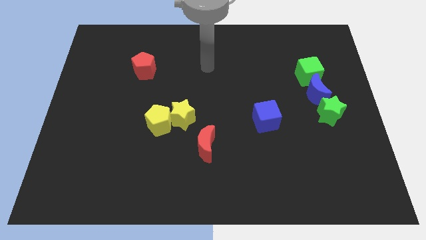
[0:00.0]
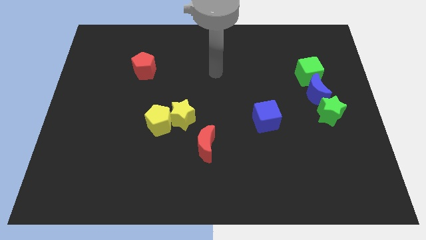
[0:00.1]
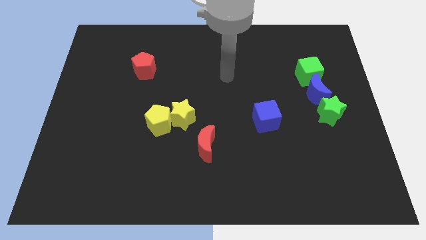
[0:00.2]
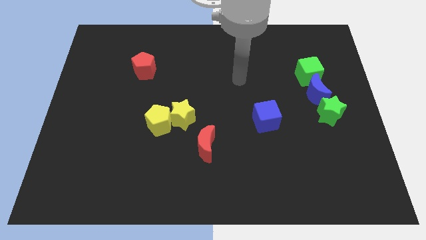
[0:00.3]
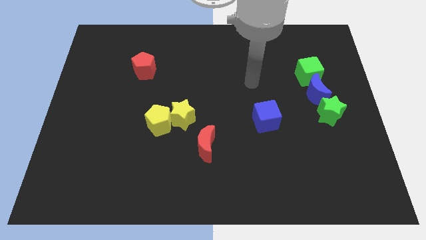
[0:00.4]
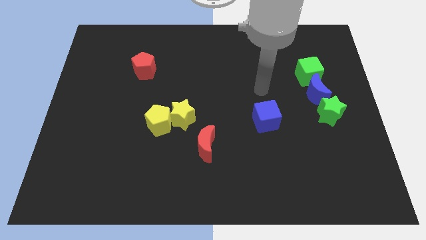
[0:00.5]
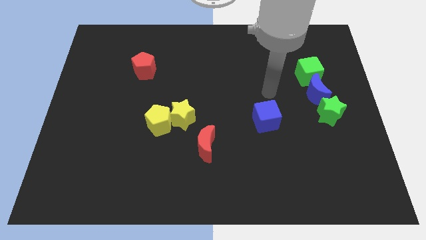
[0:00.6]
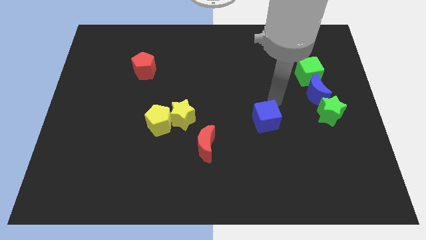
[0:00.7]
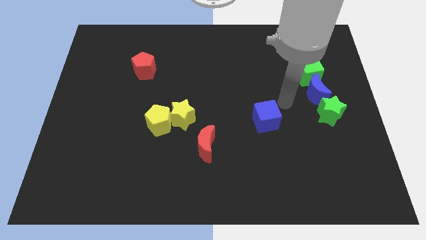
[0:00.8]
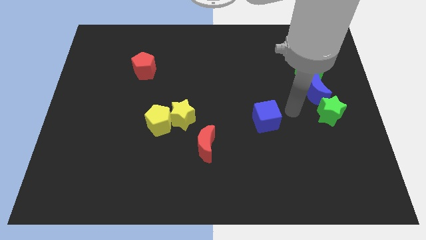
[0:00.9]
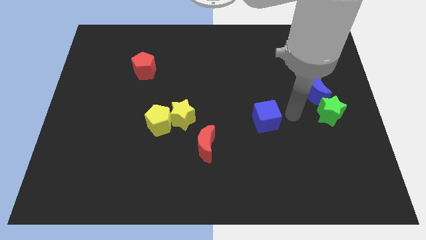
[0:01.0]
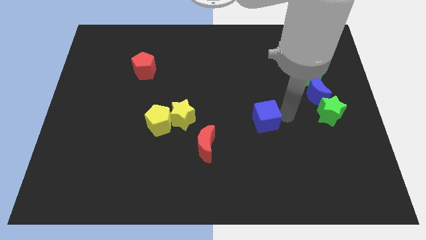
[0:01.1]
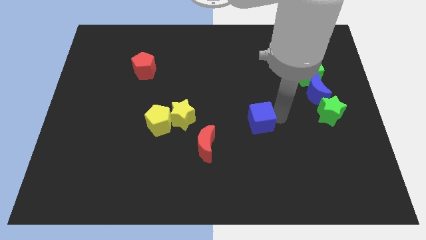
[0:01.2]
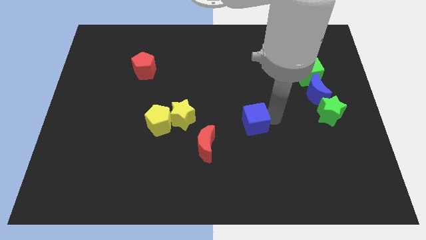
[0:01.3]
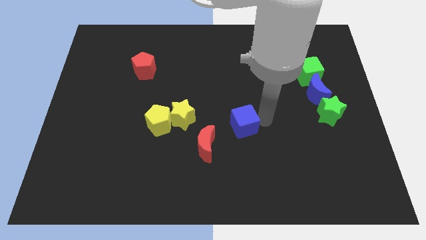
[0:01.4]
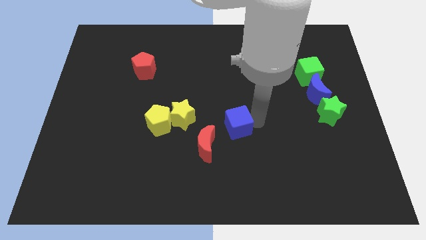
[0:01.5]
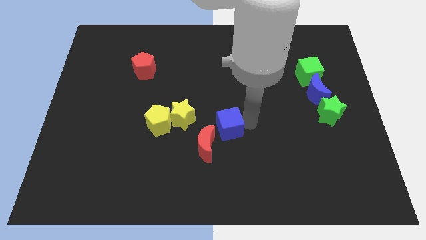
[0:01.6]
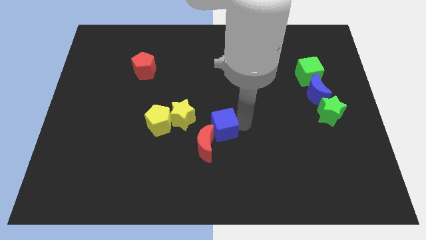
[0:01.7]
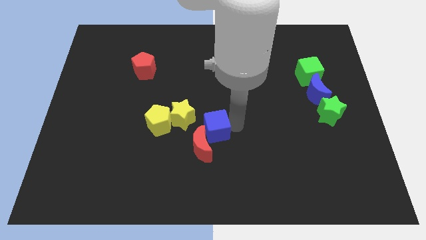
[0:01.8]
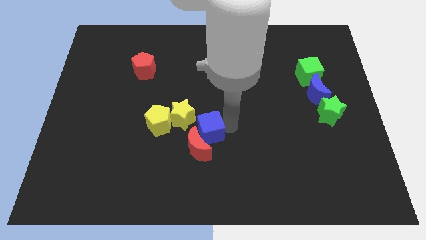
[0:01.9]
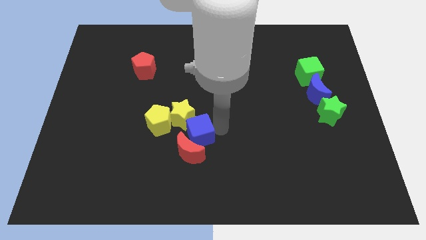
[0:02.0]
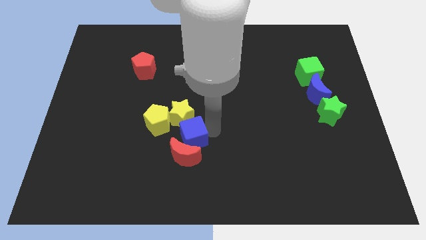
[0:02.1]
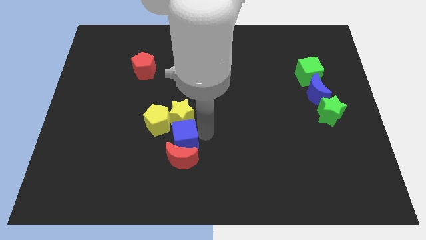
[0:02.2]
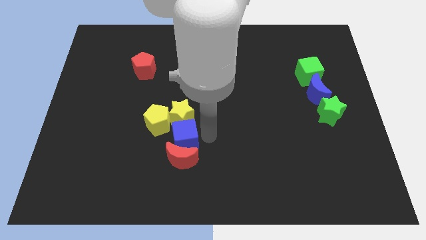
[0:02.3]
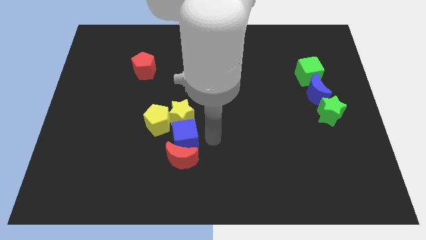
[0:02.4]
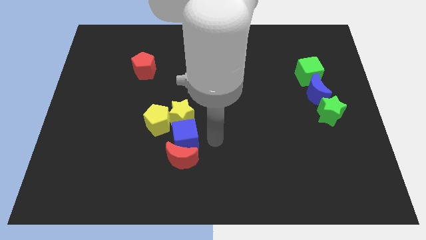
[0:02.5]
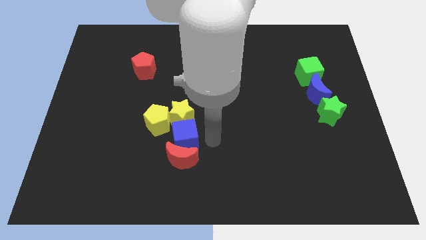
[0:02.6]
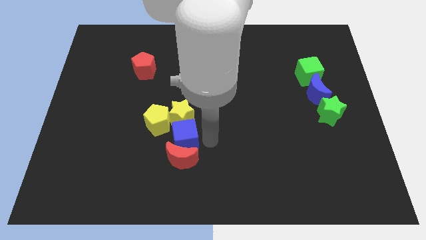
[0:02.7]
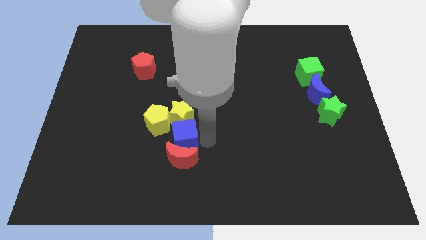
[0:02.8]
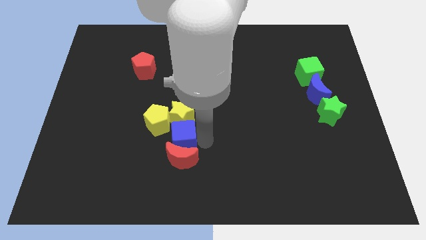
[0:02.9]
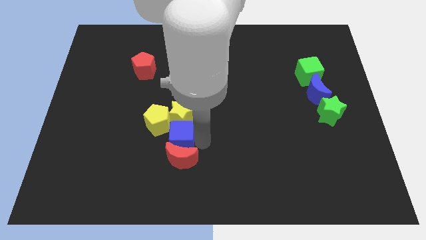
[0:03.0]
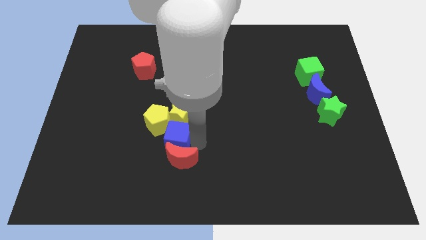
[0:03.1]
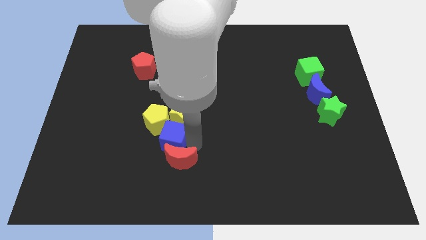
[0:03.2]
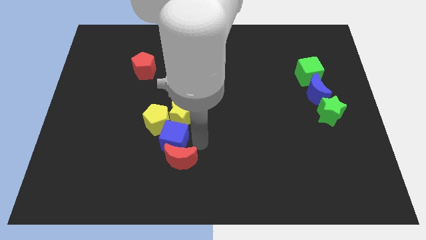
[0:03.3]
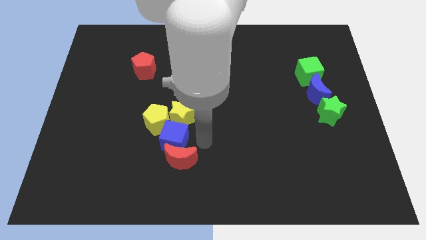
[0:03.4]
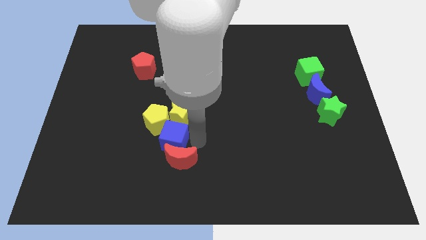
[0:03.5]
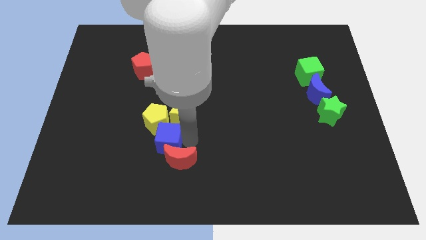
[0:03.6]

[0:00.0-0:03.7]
slide the blue cube left

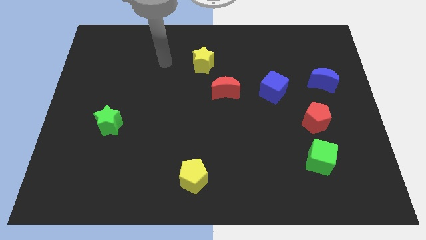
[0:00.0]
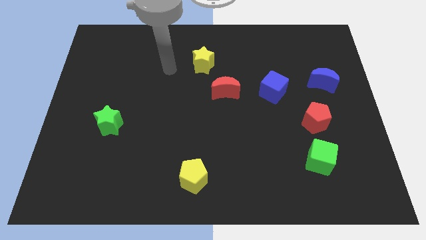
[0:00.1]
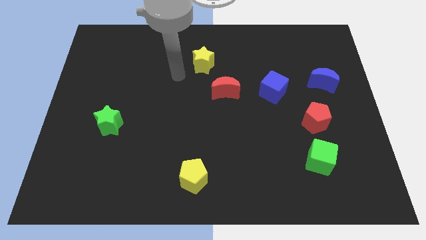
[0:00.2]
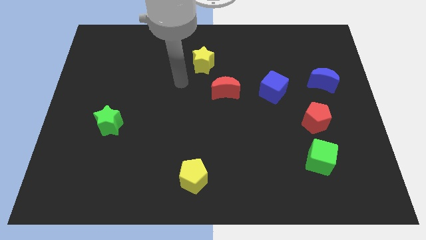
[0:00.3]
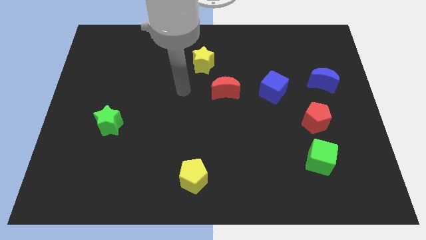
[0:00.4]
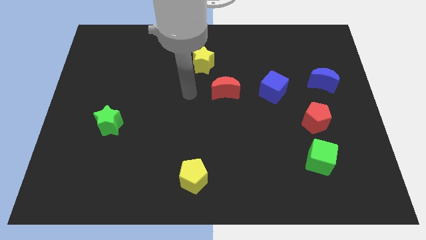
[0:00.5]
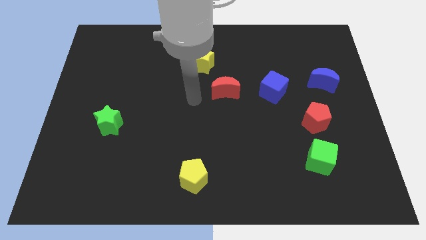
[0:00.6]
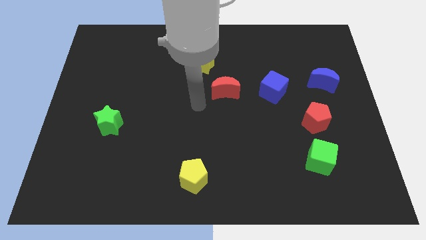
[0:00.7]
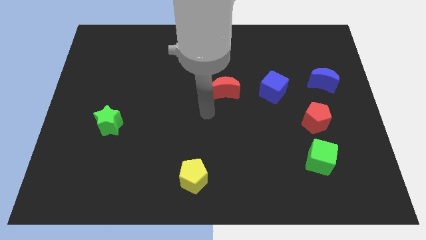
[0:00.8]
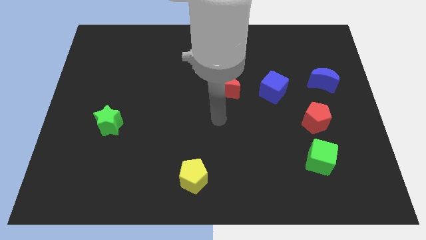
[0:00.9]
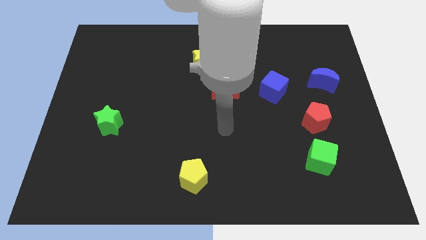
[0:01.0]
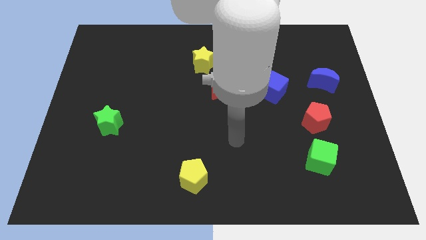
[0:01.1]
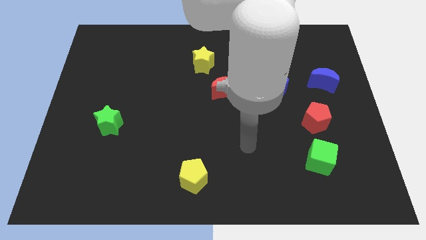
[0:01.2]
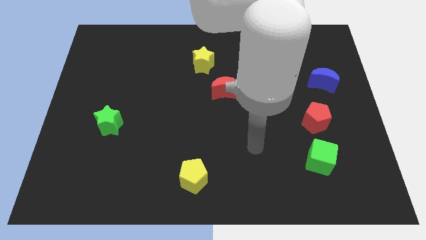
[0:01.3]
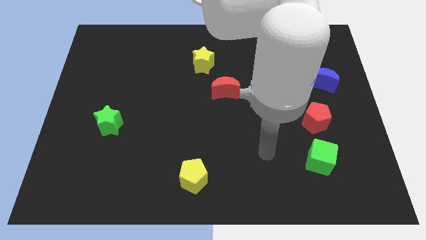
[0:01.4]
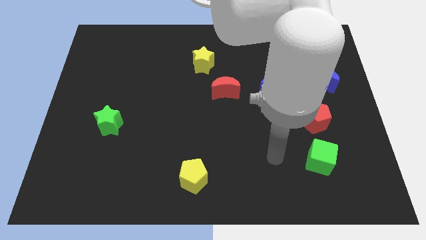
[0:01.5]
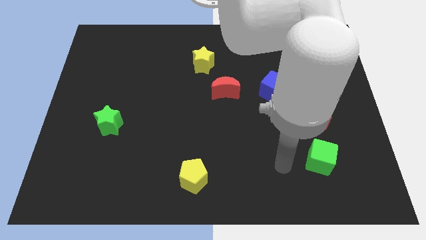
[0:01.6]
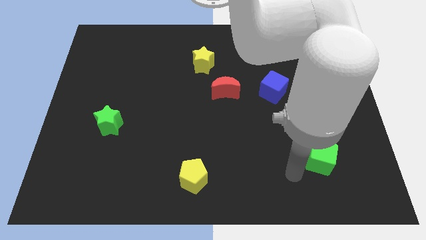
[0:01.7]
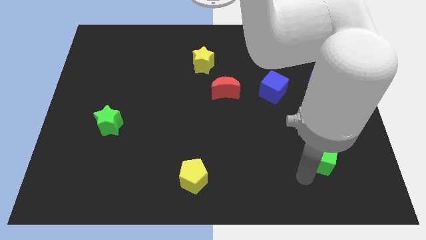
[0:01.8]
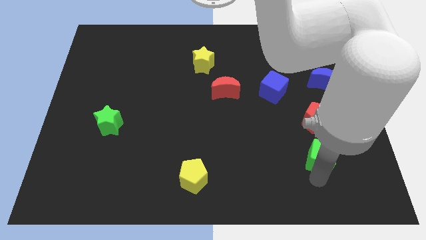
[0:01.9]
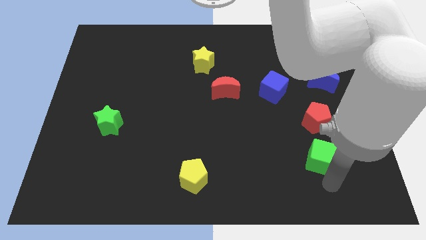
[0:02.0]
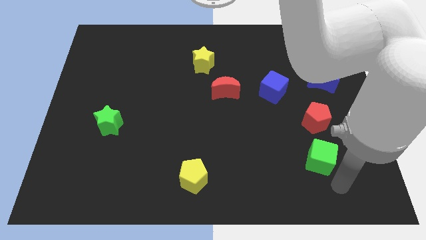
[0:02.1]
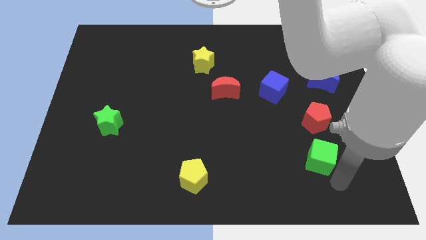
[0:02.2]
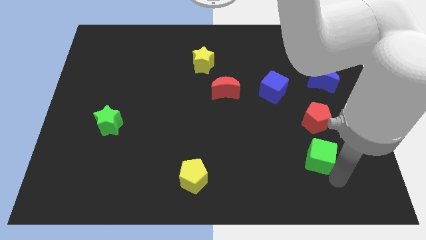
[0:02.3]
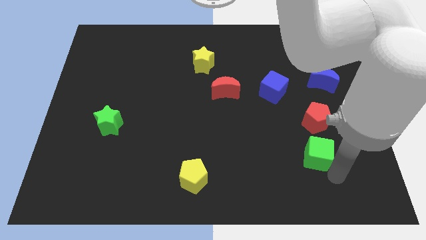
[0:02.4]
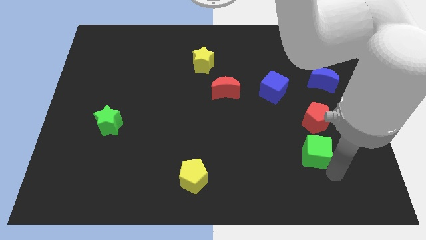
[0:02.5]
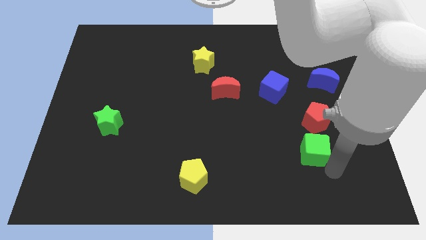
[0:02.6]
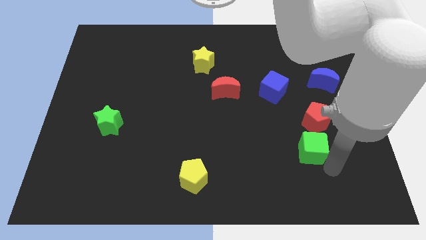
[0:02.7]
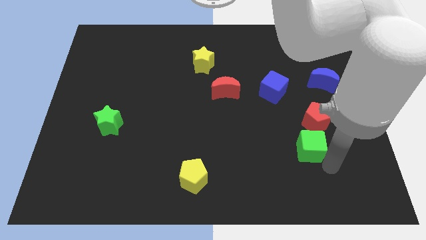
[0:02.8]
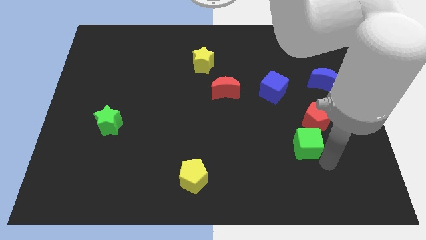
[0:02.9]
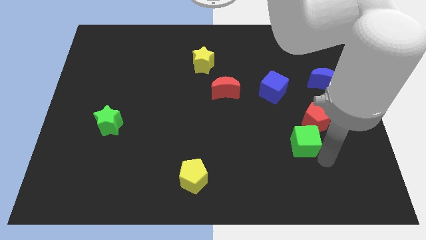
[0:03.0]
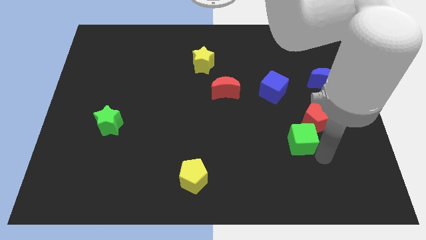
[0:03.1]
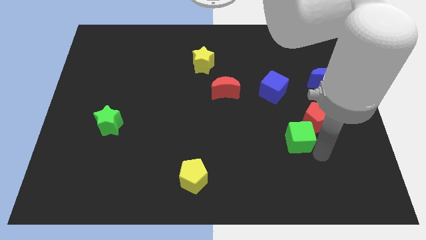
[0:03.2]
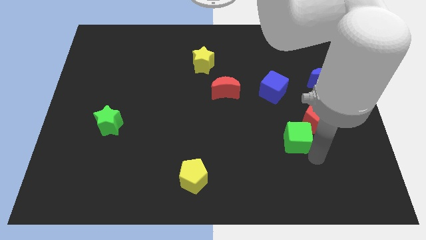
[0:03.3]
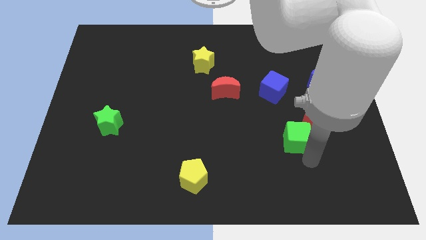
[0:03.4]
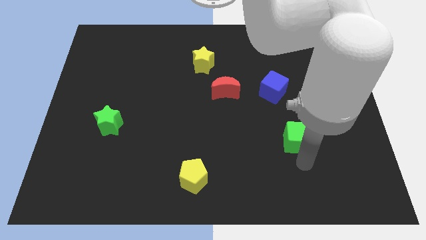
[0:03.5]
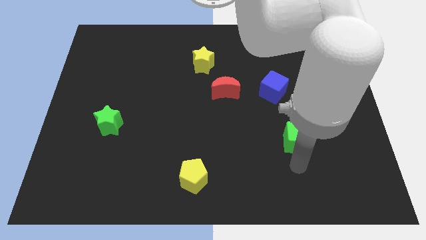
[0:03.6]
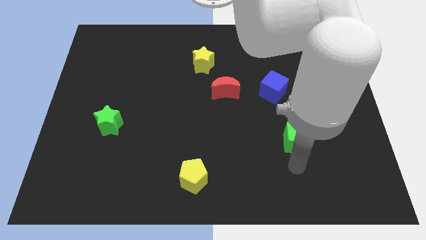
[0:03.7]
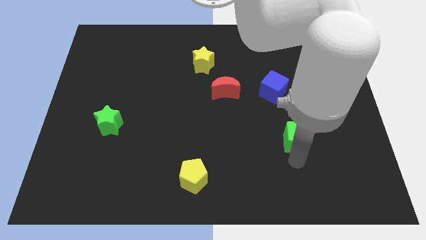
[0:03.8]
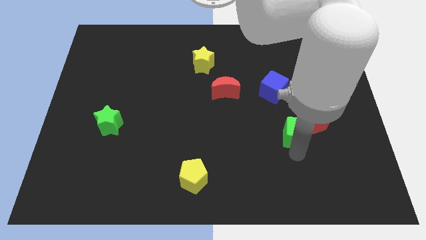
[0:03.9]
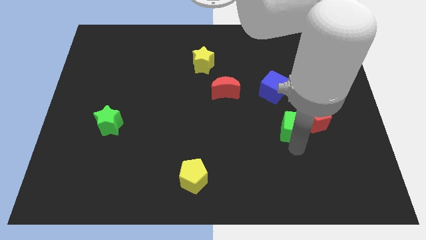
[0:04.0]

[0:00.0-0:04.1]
slide the green cube a little up
